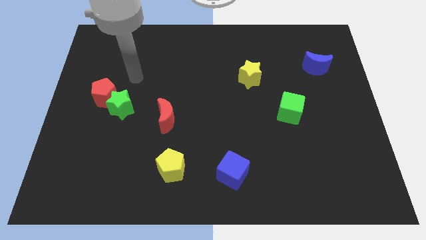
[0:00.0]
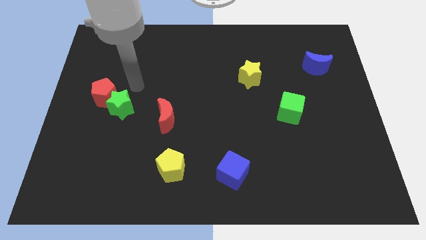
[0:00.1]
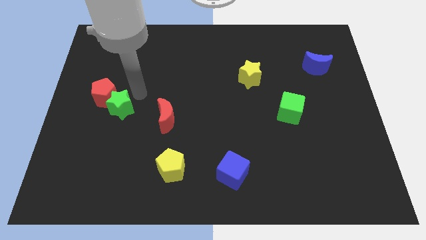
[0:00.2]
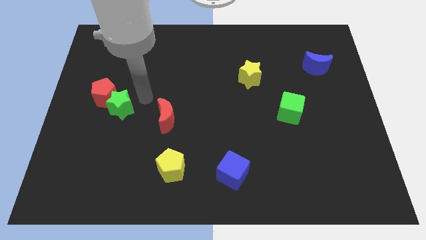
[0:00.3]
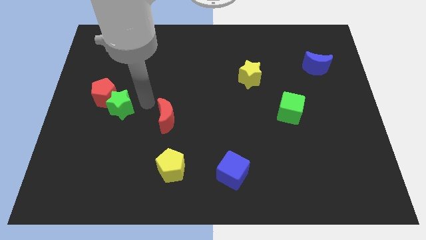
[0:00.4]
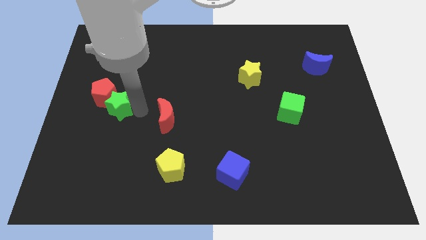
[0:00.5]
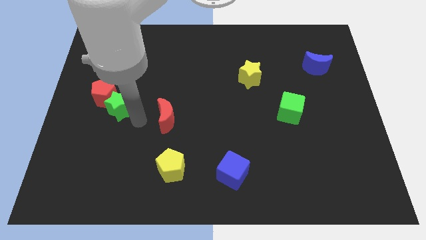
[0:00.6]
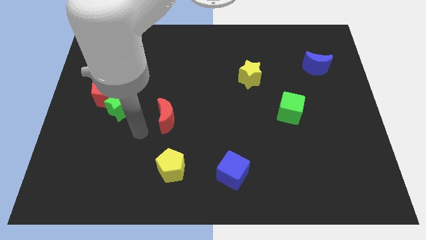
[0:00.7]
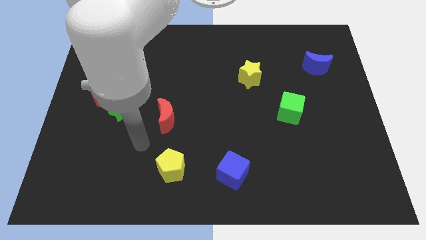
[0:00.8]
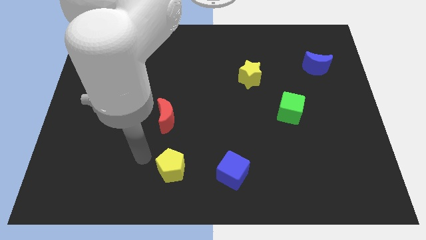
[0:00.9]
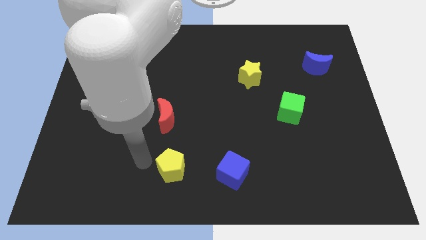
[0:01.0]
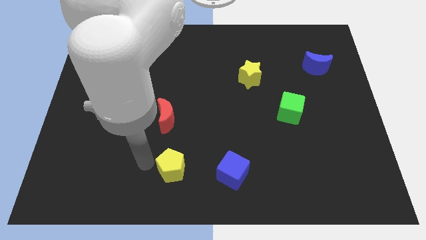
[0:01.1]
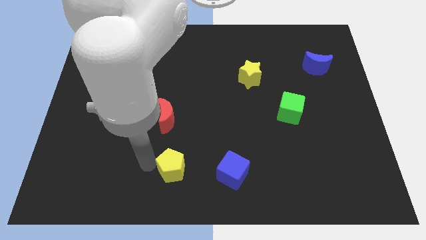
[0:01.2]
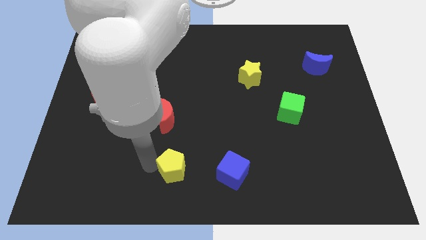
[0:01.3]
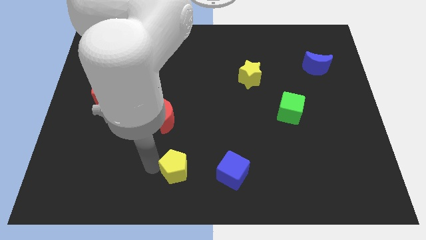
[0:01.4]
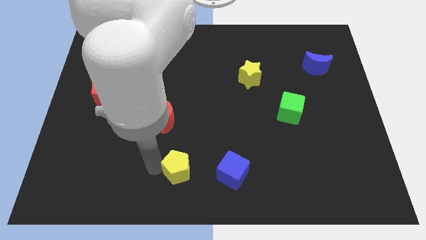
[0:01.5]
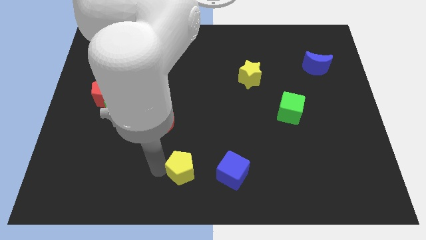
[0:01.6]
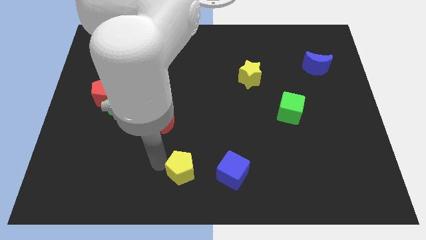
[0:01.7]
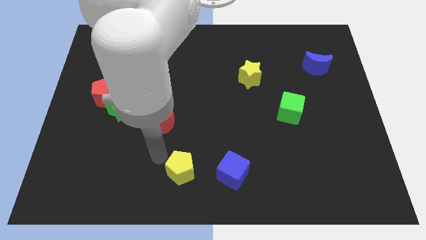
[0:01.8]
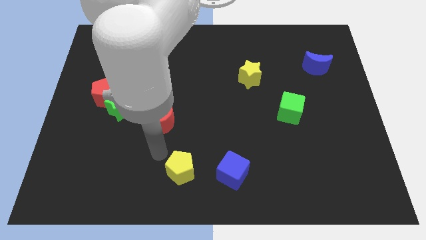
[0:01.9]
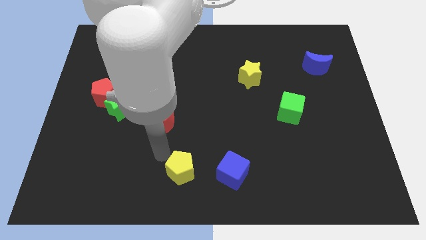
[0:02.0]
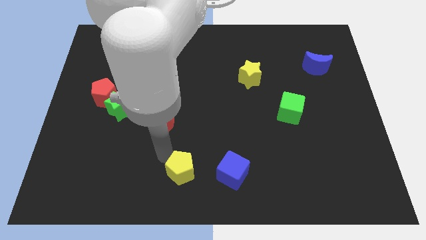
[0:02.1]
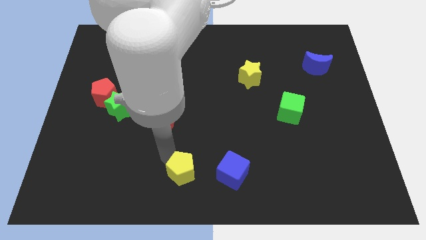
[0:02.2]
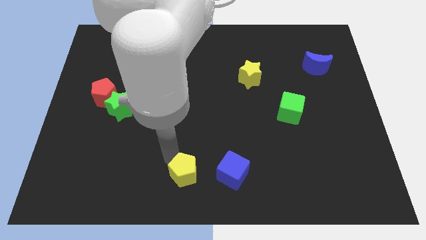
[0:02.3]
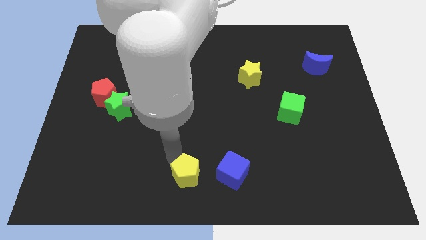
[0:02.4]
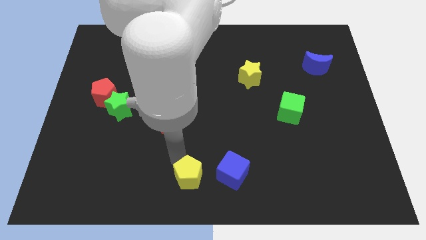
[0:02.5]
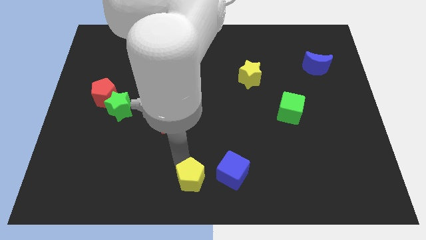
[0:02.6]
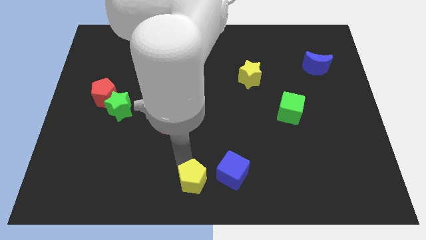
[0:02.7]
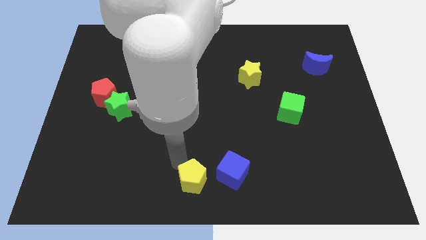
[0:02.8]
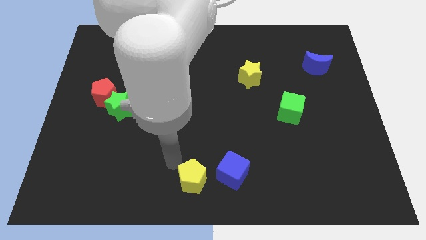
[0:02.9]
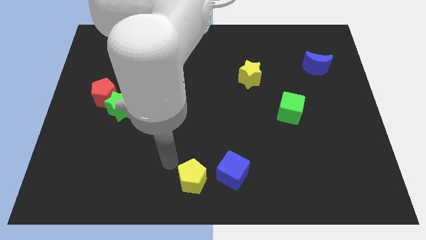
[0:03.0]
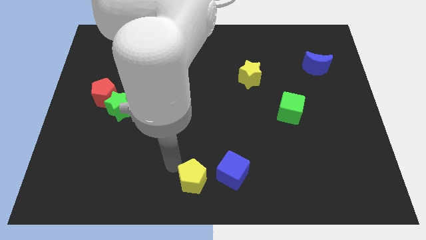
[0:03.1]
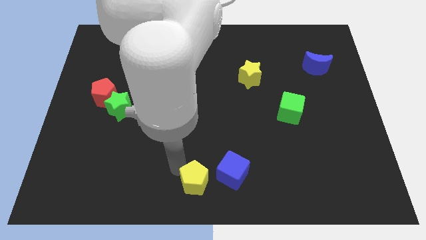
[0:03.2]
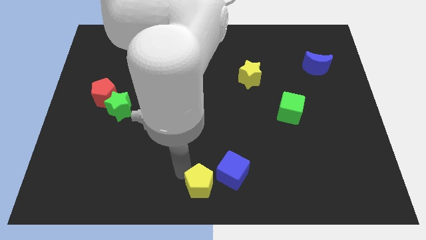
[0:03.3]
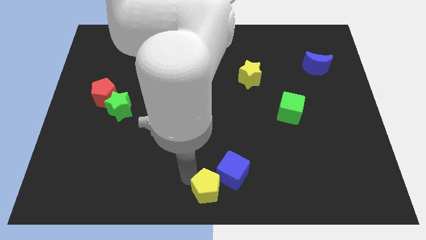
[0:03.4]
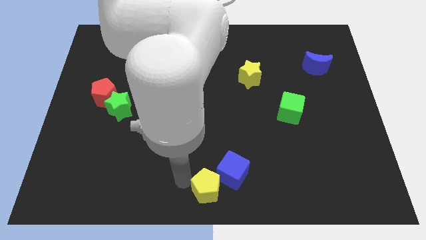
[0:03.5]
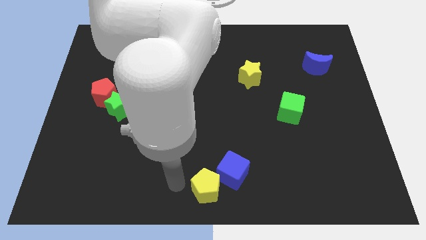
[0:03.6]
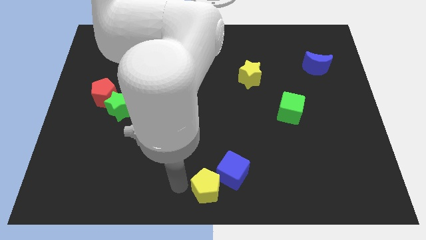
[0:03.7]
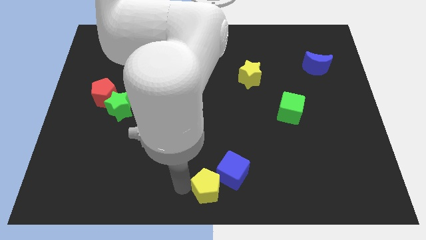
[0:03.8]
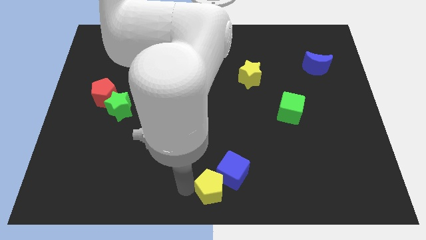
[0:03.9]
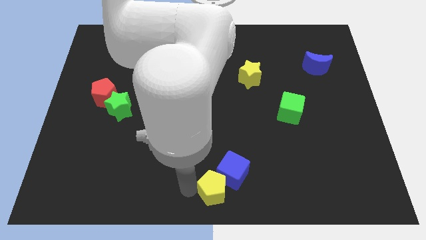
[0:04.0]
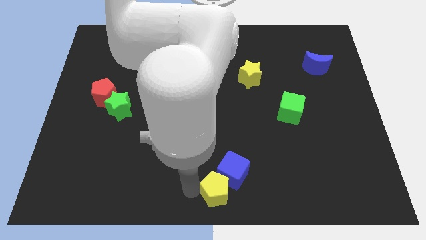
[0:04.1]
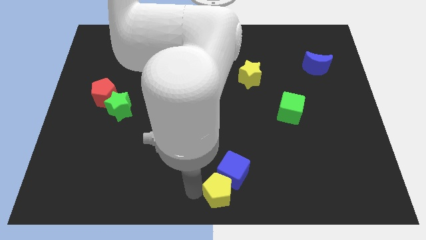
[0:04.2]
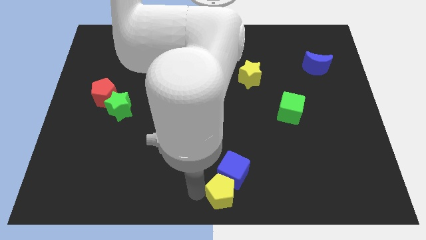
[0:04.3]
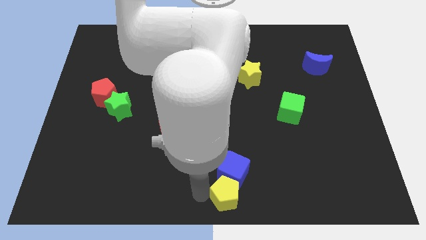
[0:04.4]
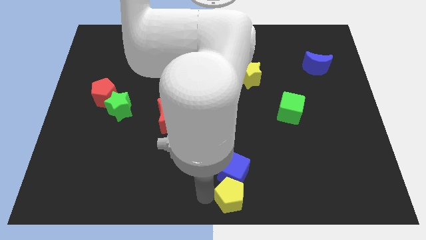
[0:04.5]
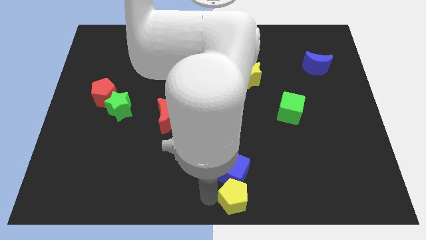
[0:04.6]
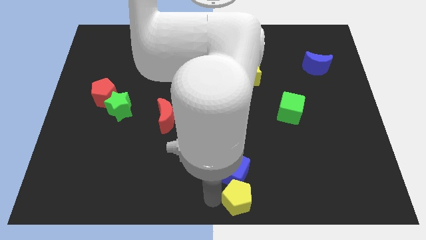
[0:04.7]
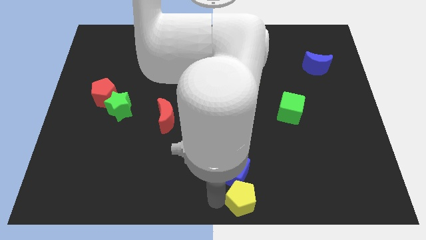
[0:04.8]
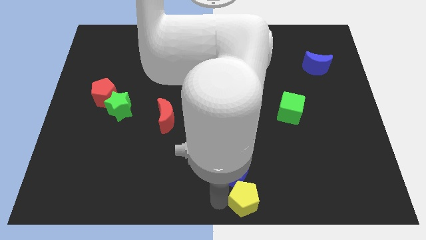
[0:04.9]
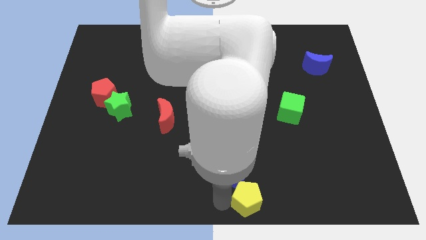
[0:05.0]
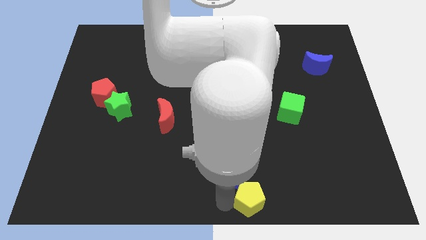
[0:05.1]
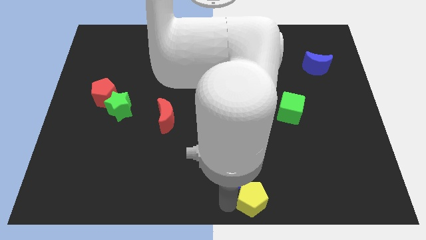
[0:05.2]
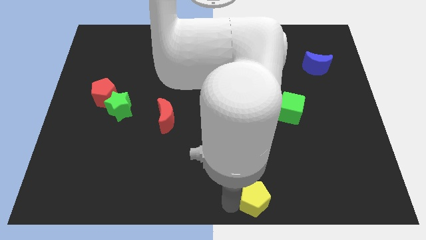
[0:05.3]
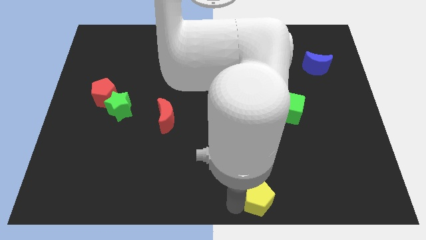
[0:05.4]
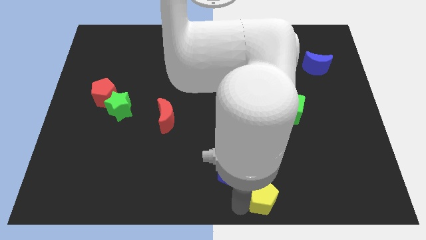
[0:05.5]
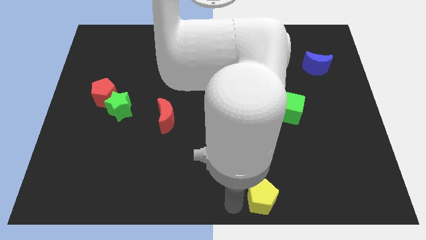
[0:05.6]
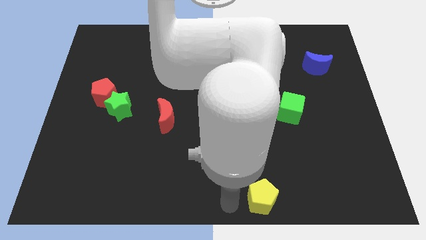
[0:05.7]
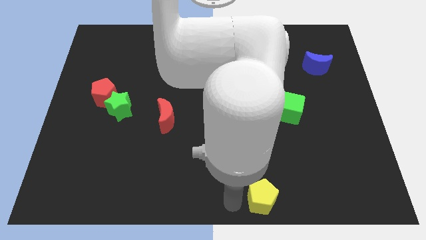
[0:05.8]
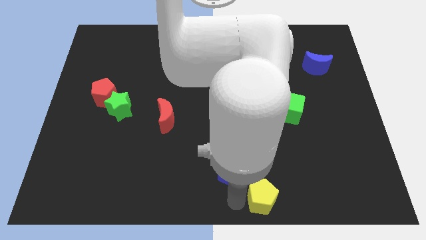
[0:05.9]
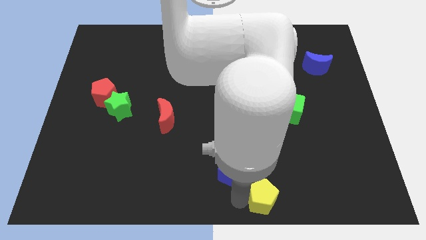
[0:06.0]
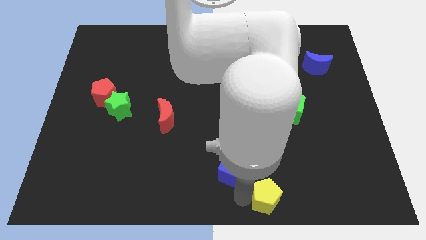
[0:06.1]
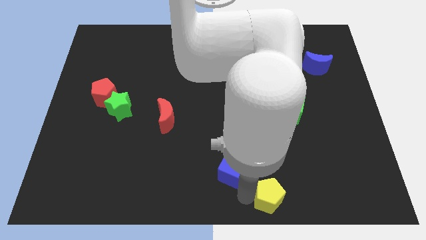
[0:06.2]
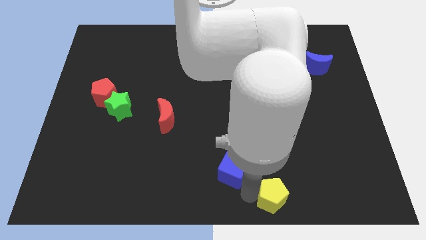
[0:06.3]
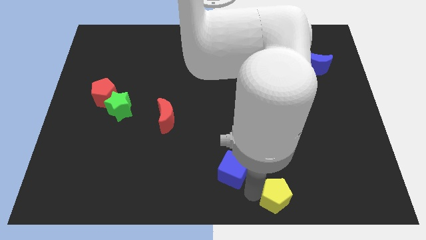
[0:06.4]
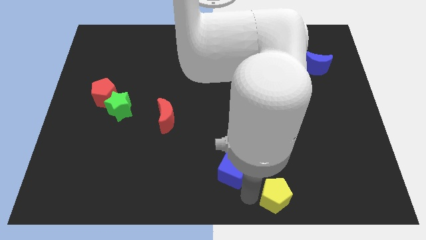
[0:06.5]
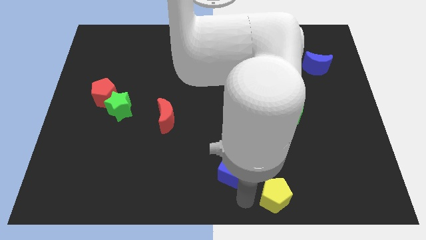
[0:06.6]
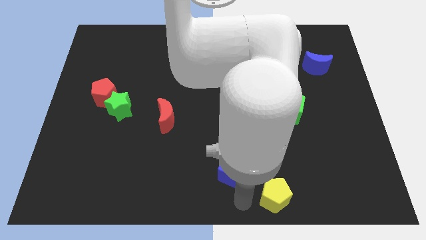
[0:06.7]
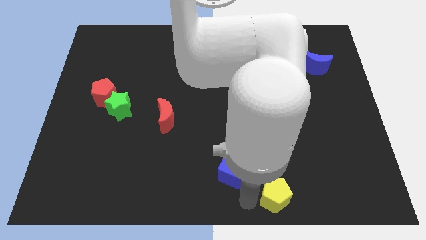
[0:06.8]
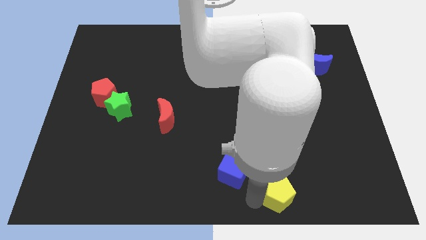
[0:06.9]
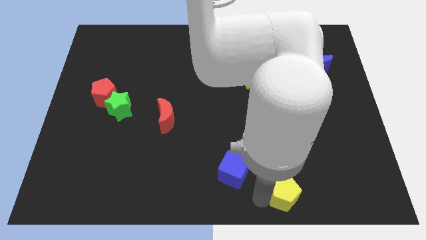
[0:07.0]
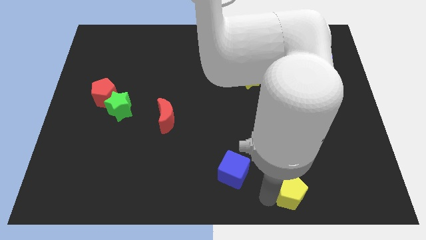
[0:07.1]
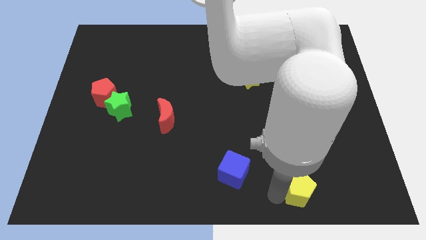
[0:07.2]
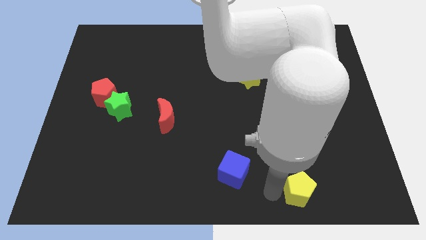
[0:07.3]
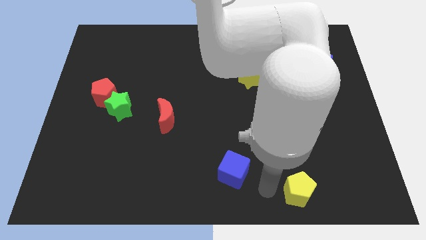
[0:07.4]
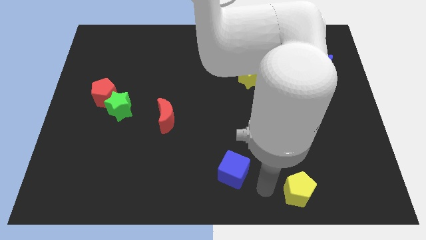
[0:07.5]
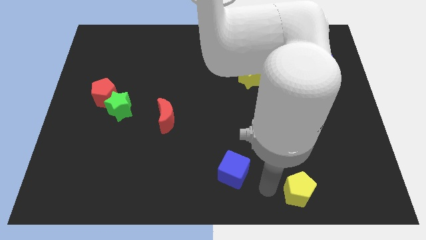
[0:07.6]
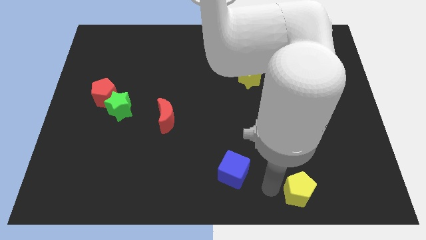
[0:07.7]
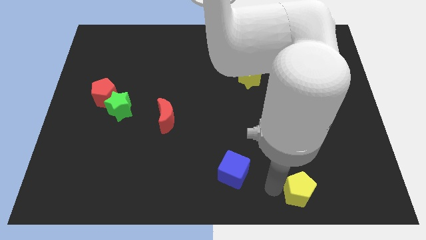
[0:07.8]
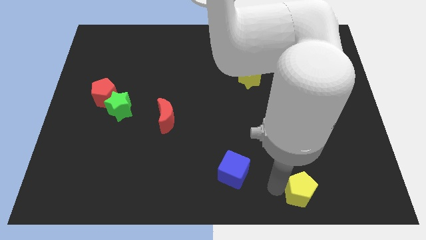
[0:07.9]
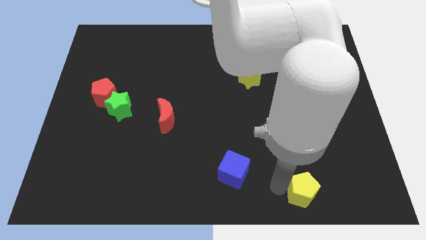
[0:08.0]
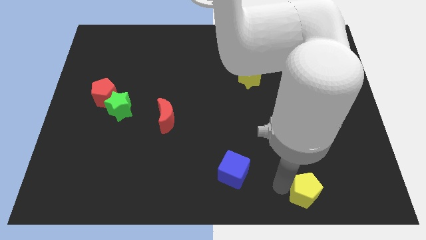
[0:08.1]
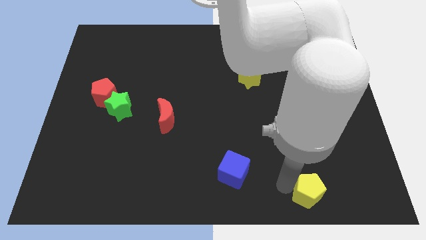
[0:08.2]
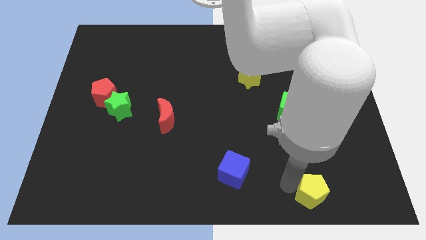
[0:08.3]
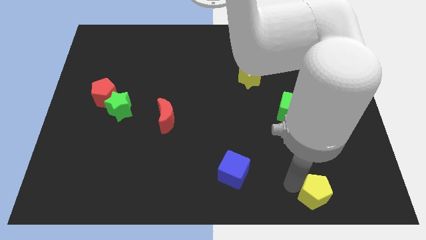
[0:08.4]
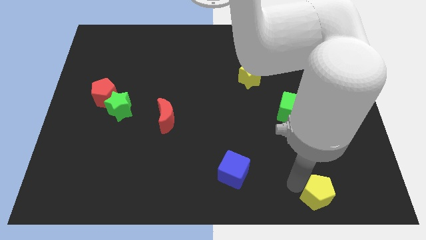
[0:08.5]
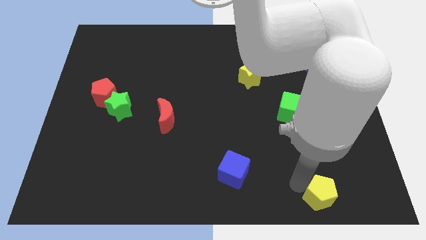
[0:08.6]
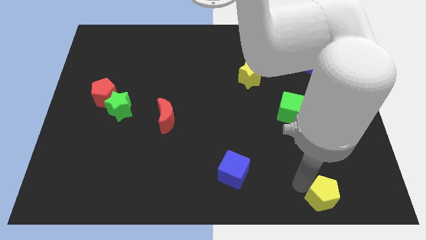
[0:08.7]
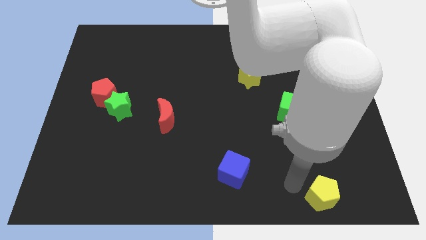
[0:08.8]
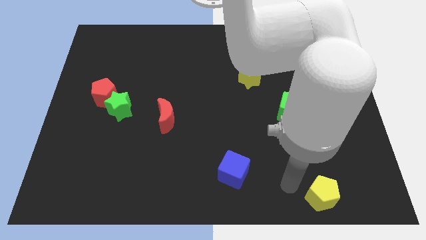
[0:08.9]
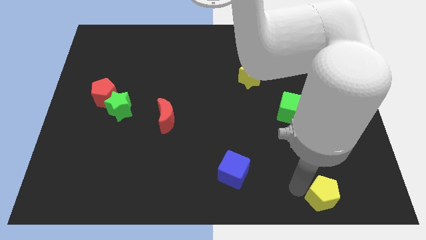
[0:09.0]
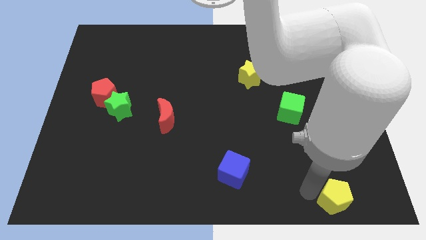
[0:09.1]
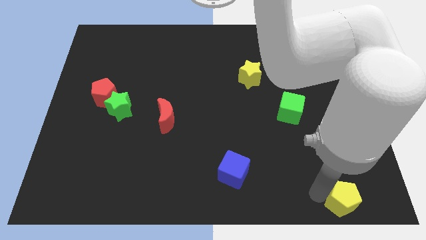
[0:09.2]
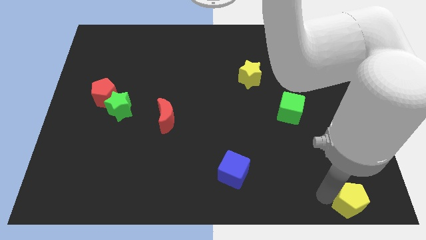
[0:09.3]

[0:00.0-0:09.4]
slide the yellow pentagon to the bottom right corner
